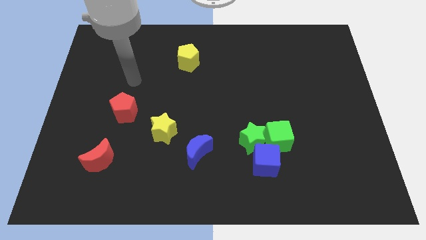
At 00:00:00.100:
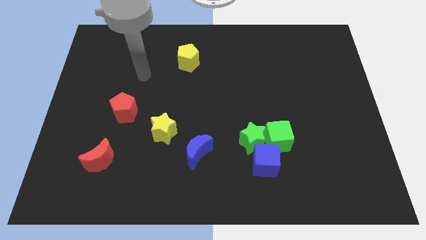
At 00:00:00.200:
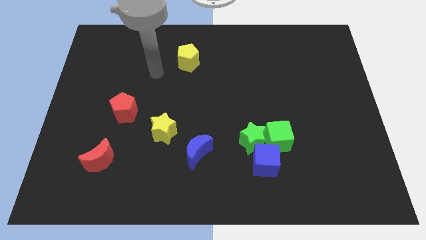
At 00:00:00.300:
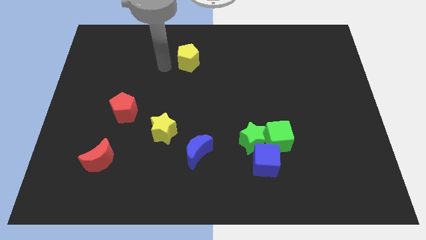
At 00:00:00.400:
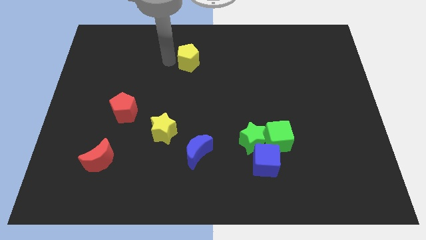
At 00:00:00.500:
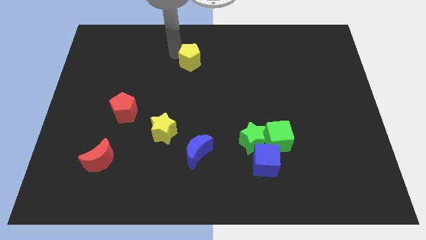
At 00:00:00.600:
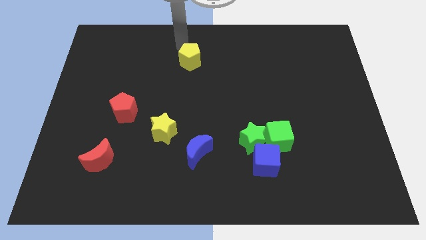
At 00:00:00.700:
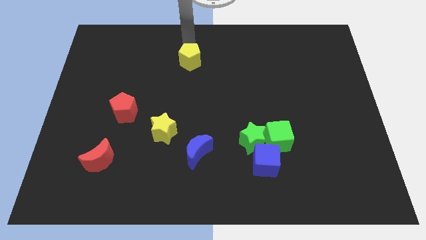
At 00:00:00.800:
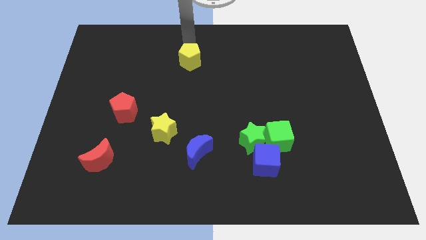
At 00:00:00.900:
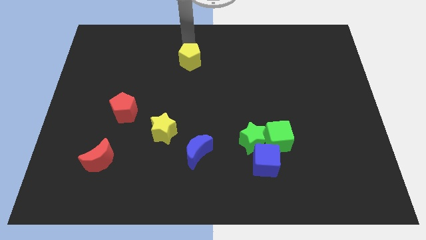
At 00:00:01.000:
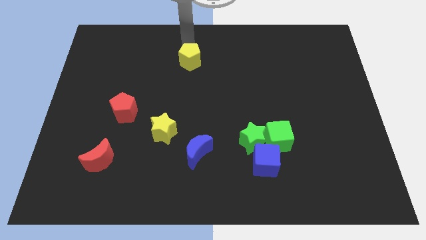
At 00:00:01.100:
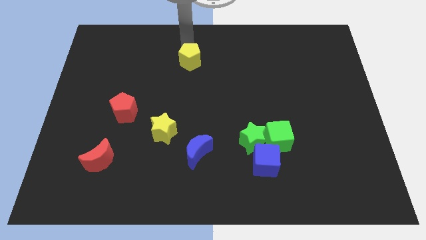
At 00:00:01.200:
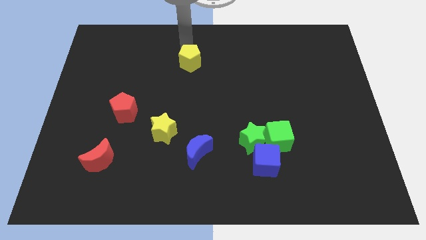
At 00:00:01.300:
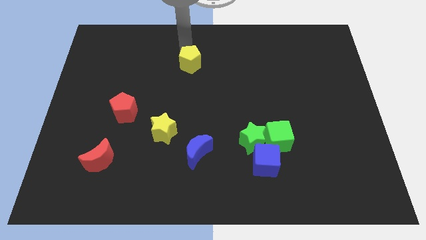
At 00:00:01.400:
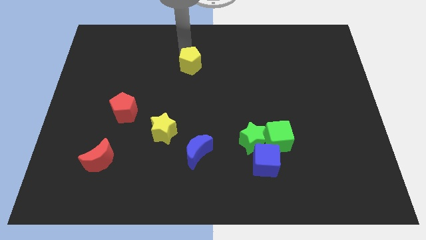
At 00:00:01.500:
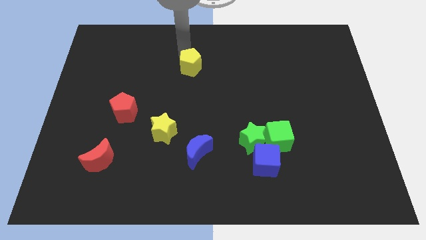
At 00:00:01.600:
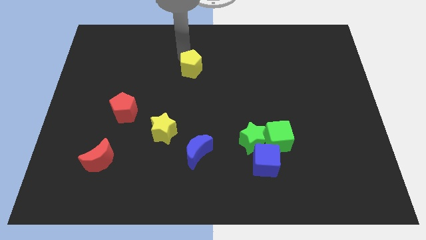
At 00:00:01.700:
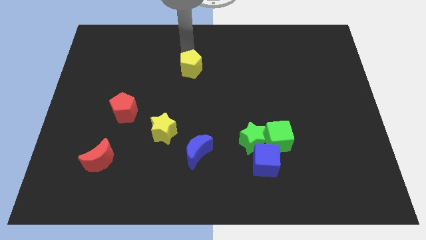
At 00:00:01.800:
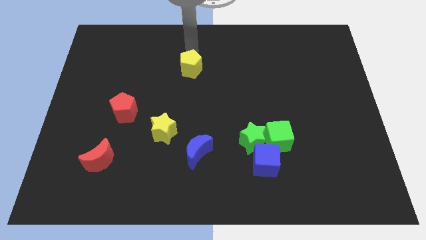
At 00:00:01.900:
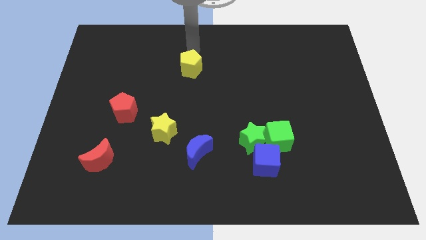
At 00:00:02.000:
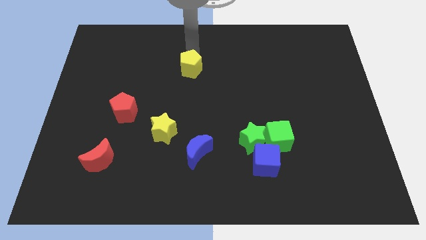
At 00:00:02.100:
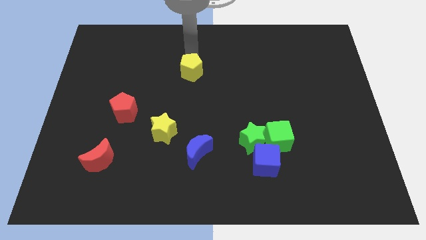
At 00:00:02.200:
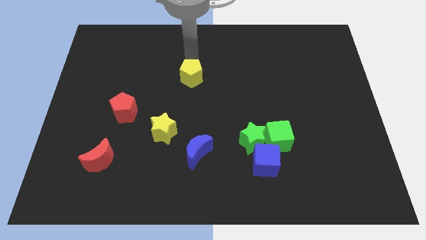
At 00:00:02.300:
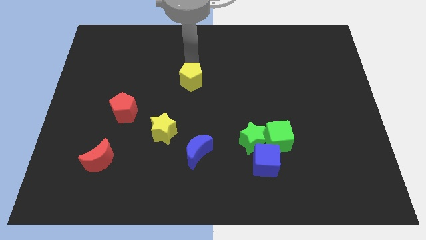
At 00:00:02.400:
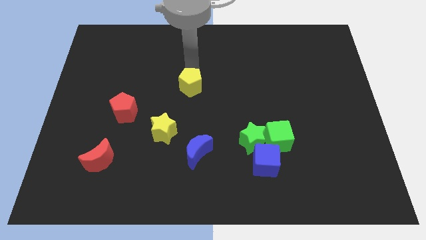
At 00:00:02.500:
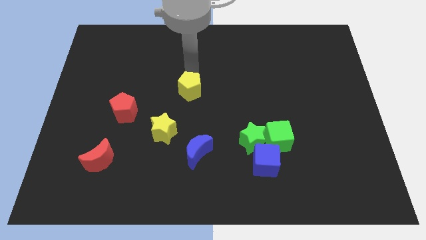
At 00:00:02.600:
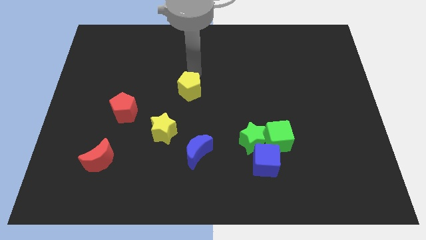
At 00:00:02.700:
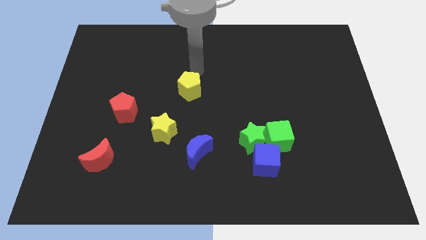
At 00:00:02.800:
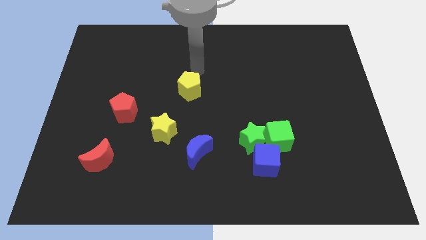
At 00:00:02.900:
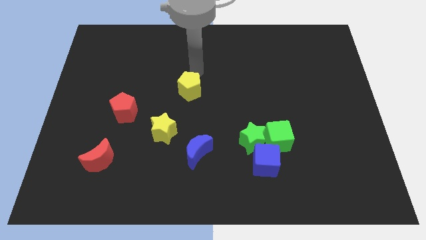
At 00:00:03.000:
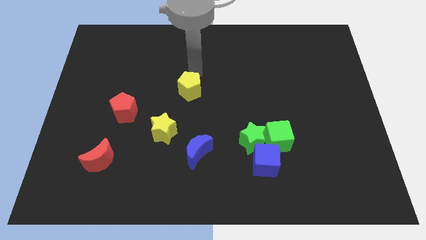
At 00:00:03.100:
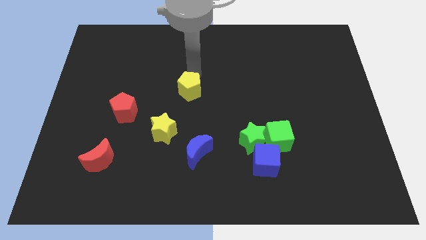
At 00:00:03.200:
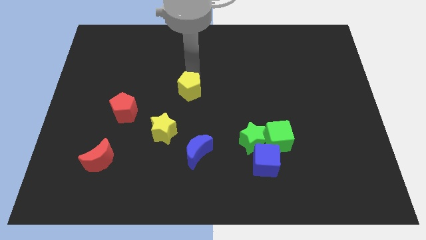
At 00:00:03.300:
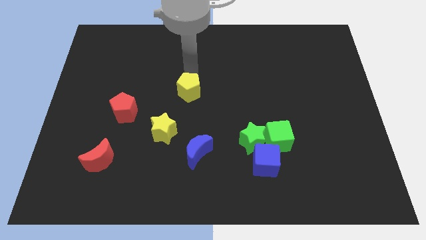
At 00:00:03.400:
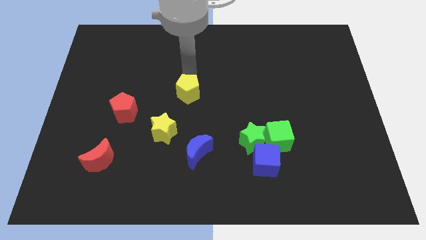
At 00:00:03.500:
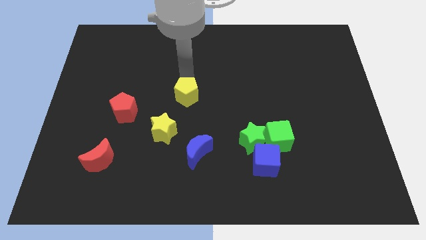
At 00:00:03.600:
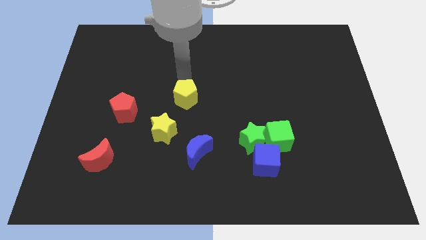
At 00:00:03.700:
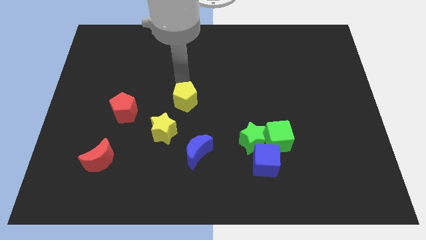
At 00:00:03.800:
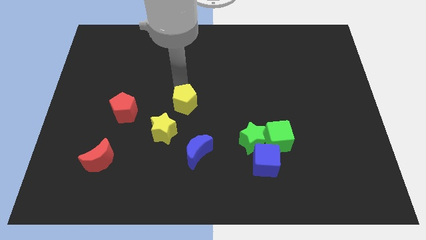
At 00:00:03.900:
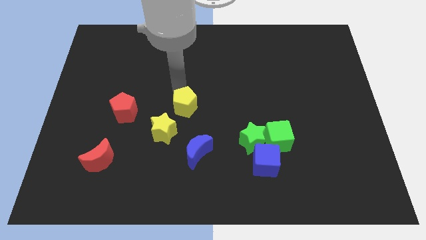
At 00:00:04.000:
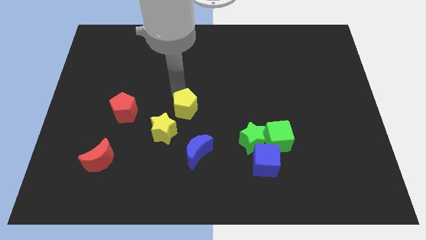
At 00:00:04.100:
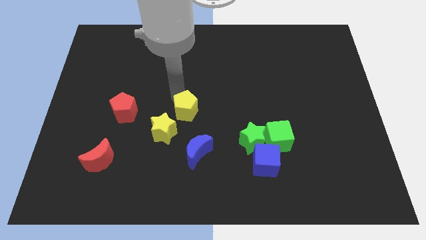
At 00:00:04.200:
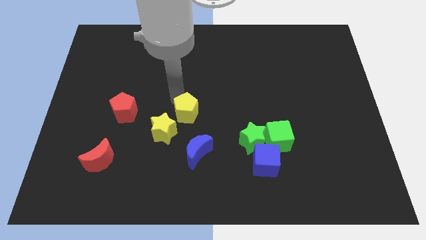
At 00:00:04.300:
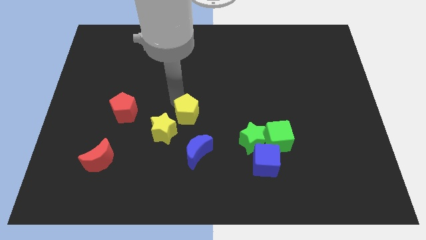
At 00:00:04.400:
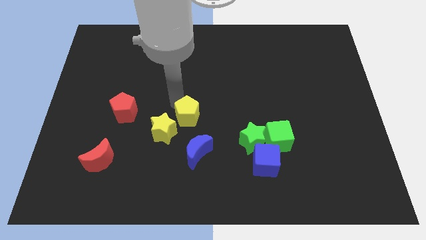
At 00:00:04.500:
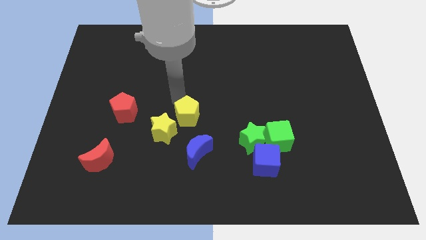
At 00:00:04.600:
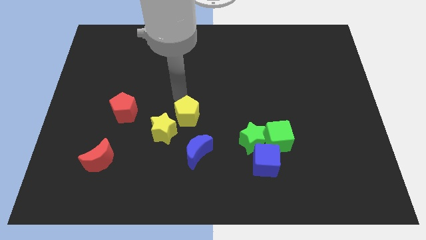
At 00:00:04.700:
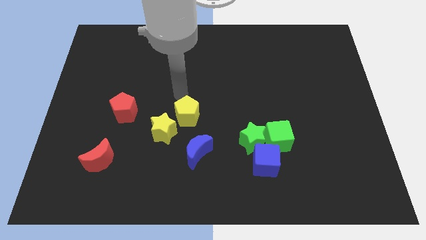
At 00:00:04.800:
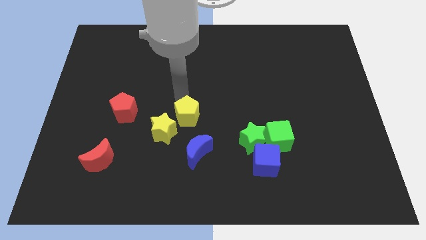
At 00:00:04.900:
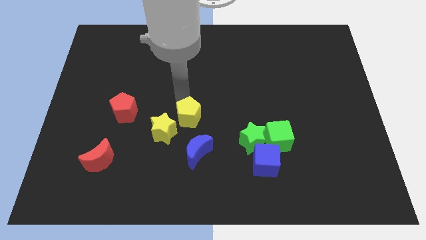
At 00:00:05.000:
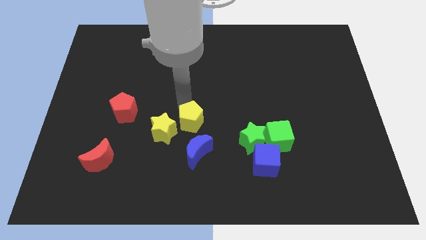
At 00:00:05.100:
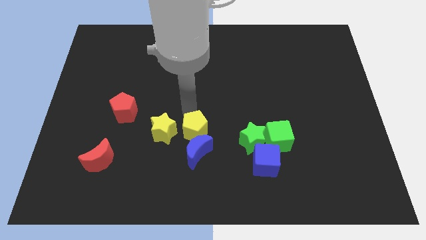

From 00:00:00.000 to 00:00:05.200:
move the yellow pentagon downwards

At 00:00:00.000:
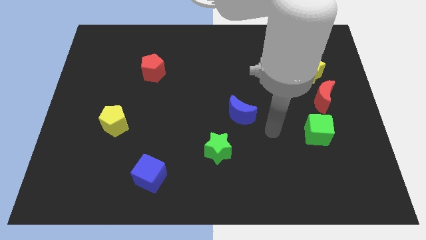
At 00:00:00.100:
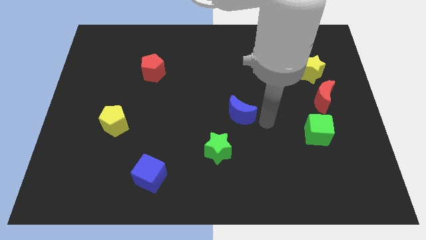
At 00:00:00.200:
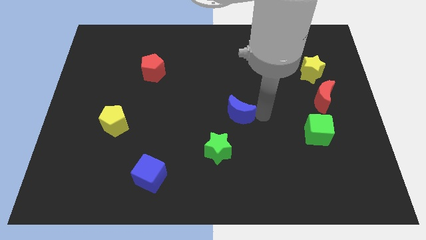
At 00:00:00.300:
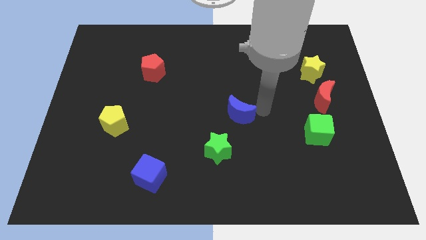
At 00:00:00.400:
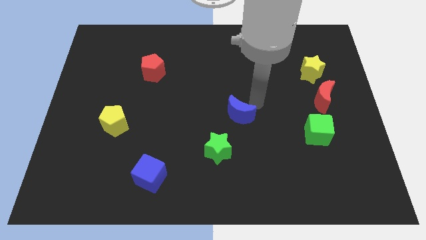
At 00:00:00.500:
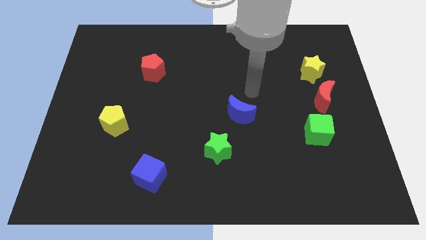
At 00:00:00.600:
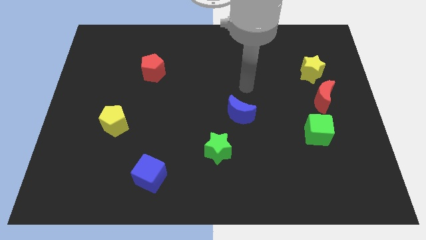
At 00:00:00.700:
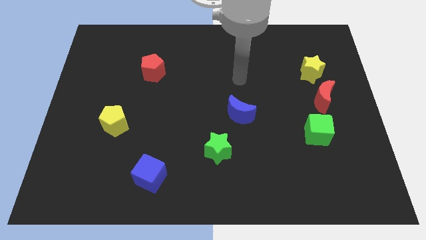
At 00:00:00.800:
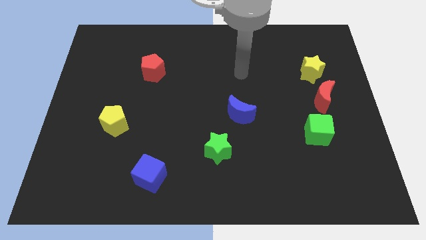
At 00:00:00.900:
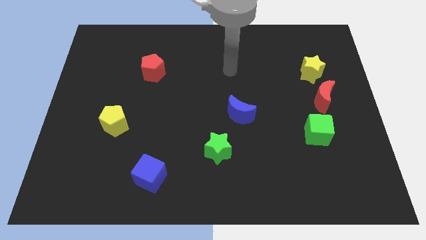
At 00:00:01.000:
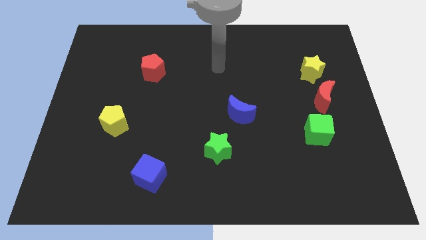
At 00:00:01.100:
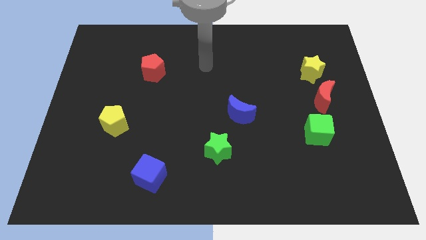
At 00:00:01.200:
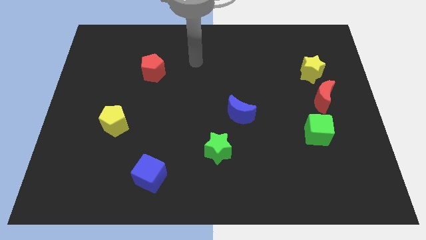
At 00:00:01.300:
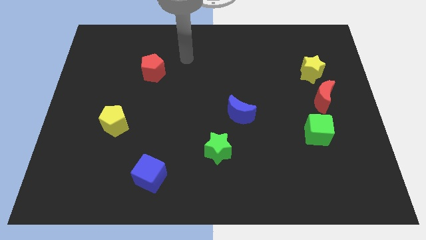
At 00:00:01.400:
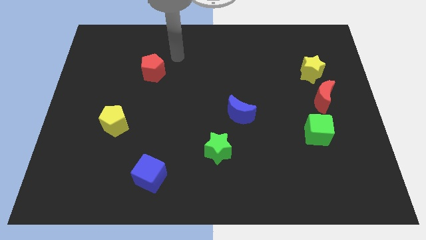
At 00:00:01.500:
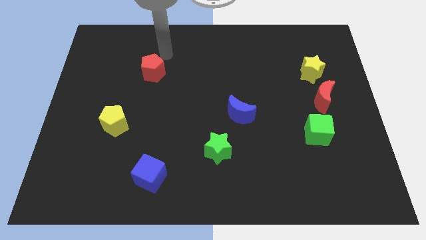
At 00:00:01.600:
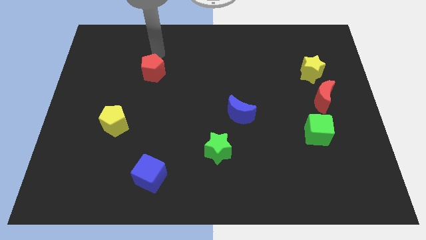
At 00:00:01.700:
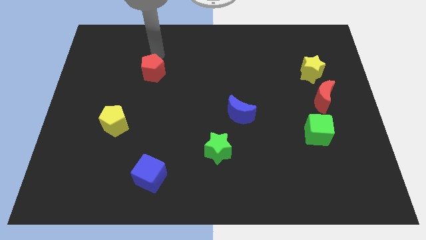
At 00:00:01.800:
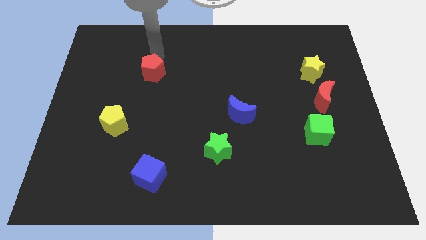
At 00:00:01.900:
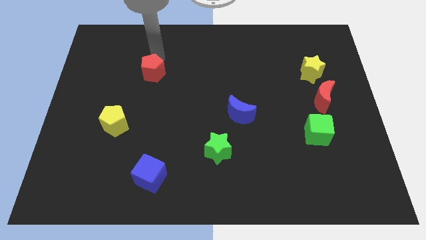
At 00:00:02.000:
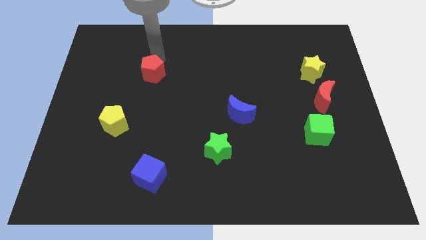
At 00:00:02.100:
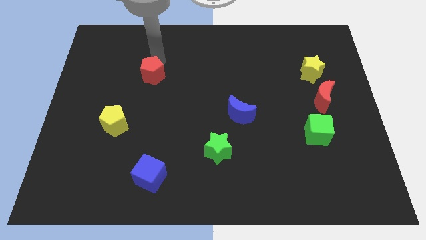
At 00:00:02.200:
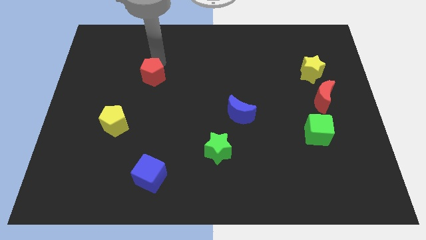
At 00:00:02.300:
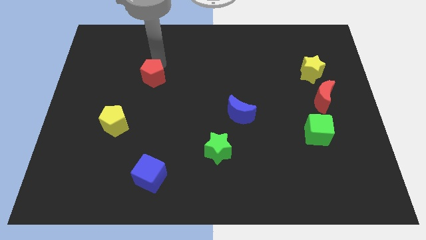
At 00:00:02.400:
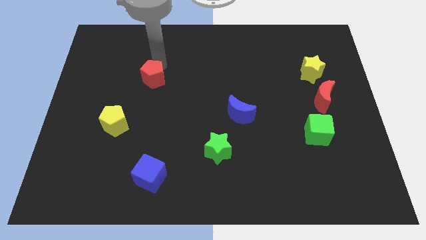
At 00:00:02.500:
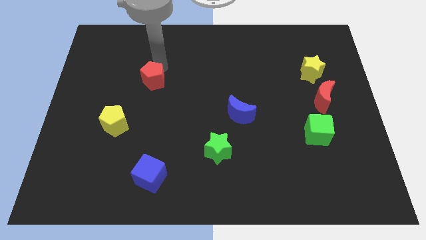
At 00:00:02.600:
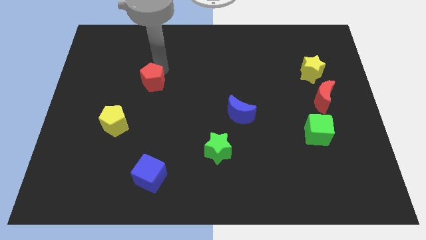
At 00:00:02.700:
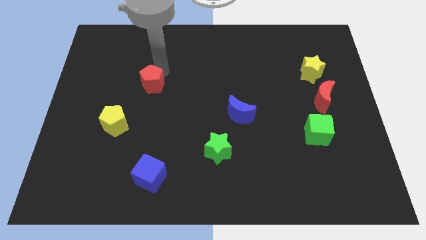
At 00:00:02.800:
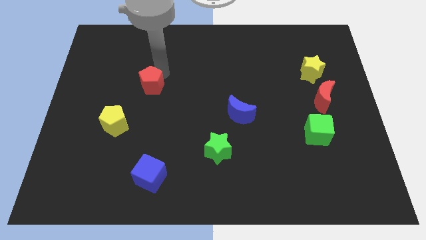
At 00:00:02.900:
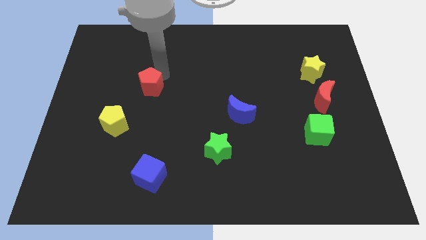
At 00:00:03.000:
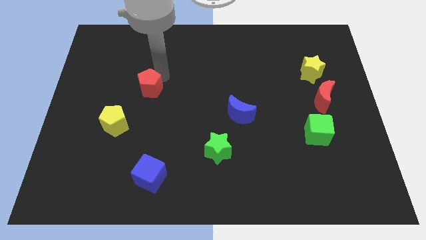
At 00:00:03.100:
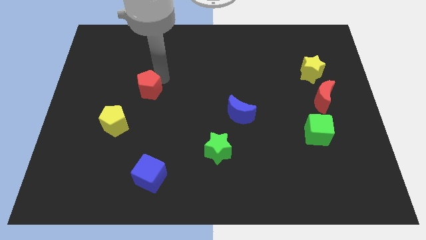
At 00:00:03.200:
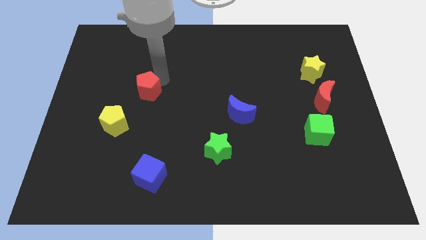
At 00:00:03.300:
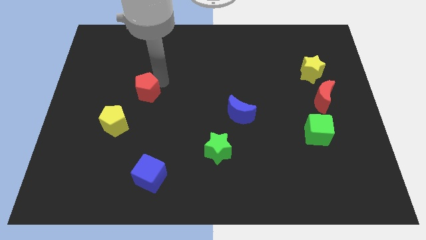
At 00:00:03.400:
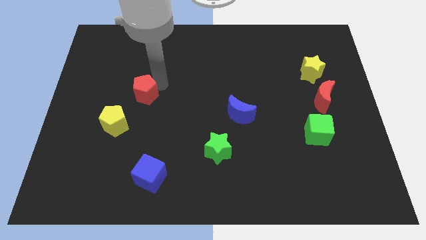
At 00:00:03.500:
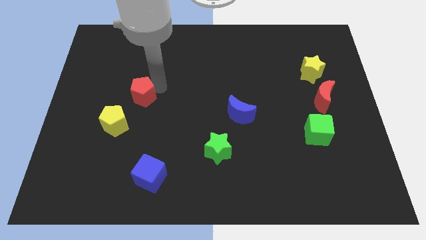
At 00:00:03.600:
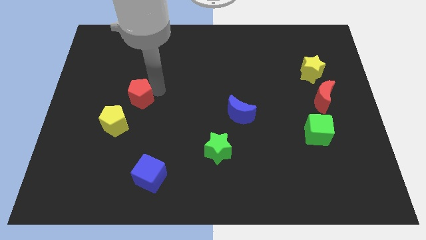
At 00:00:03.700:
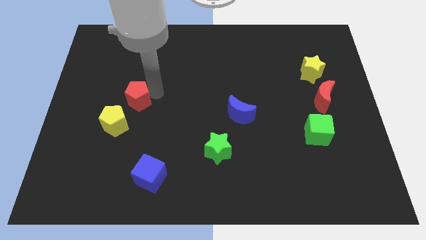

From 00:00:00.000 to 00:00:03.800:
move the red pentagon downwards and then to the left a bit
